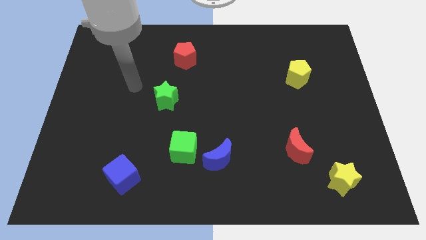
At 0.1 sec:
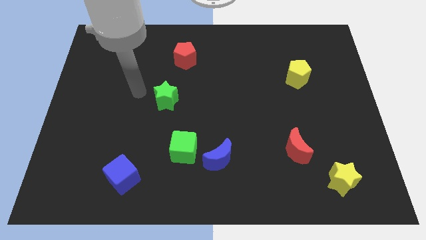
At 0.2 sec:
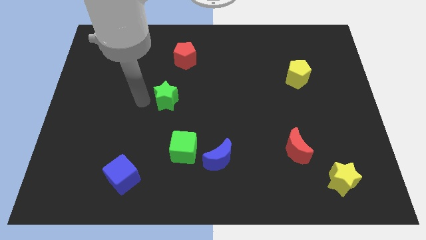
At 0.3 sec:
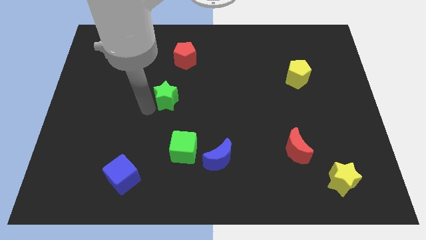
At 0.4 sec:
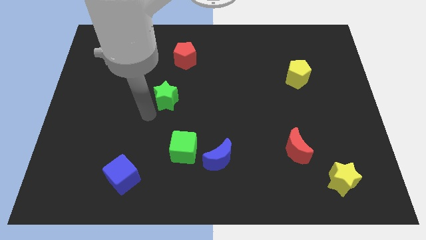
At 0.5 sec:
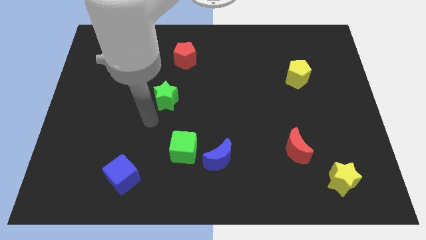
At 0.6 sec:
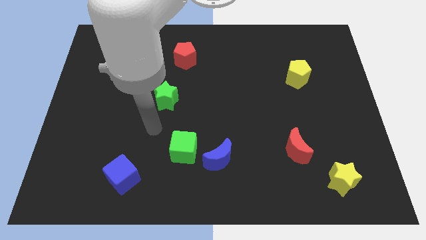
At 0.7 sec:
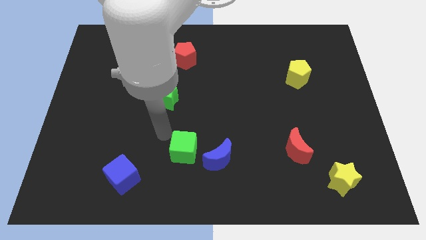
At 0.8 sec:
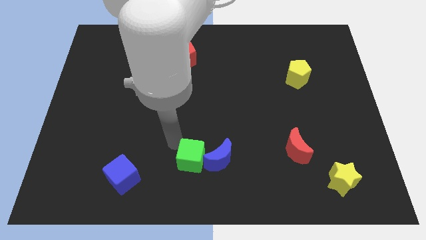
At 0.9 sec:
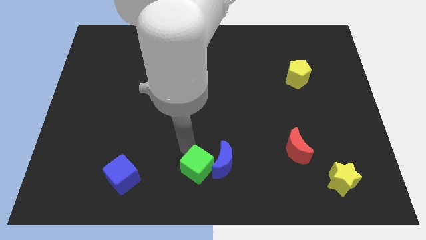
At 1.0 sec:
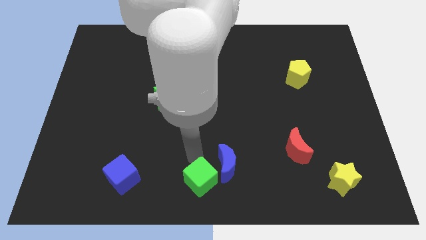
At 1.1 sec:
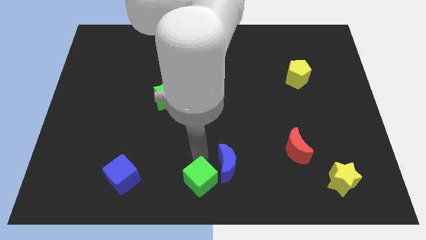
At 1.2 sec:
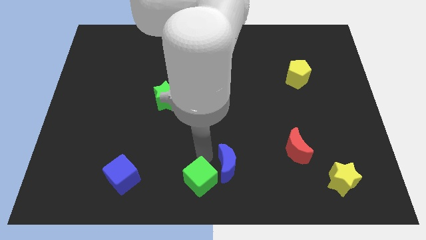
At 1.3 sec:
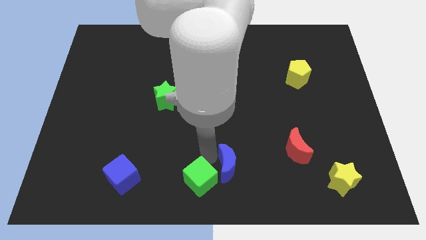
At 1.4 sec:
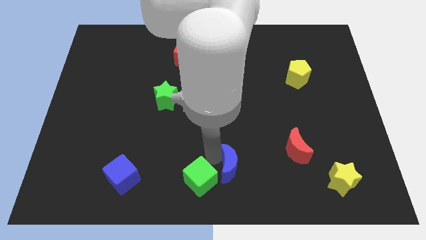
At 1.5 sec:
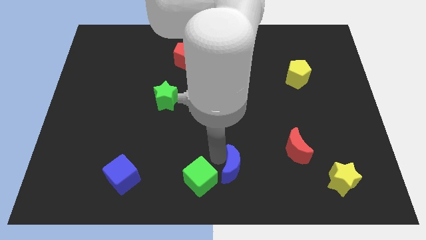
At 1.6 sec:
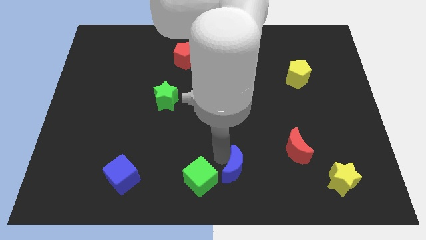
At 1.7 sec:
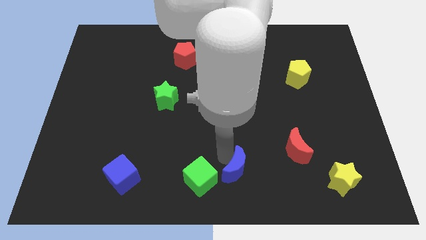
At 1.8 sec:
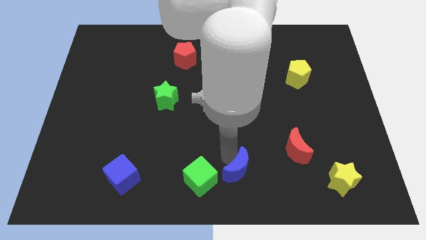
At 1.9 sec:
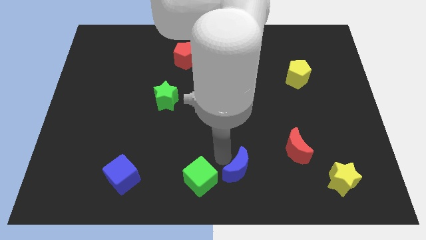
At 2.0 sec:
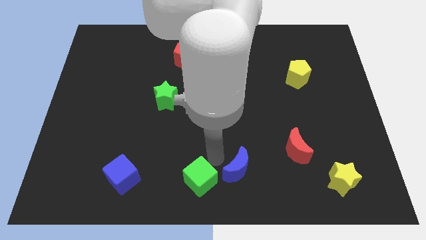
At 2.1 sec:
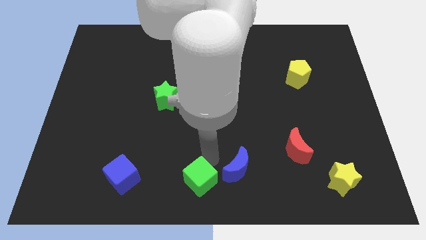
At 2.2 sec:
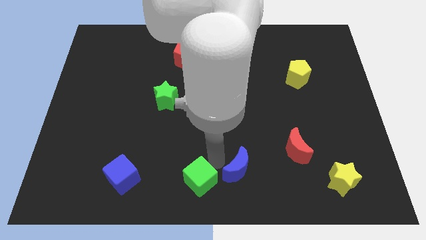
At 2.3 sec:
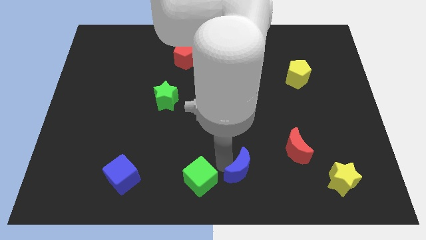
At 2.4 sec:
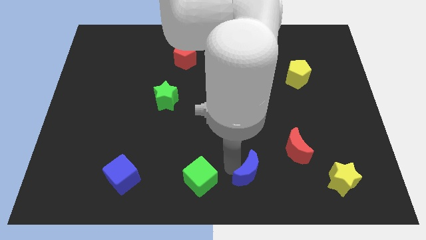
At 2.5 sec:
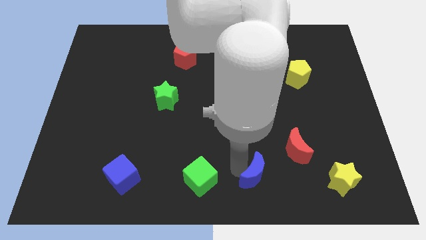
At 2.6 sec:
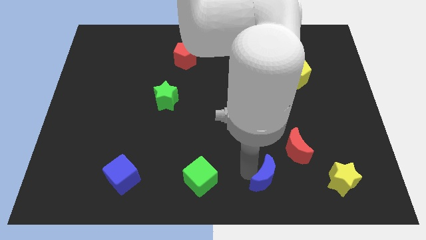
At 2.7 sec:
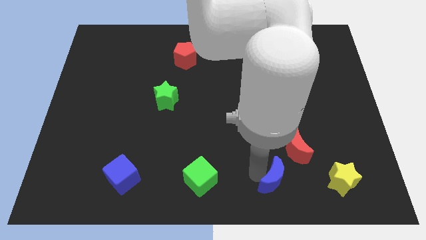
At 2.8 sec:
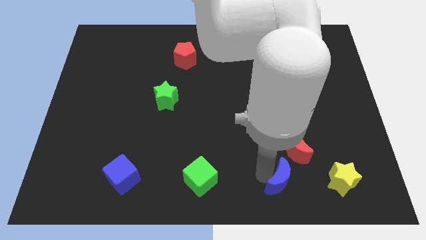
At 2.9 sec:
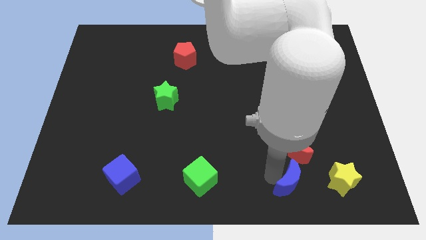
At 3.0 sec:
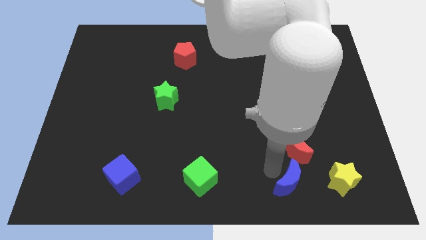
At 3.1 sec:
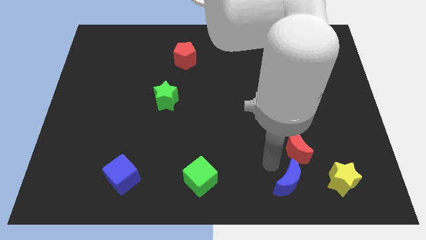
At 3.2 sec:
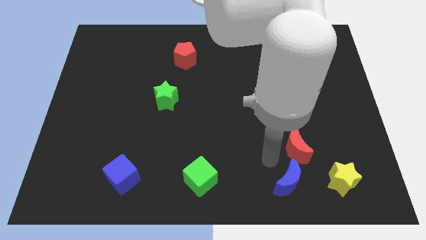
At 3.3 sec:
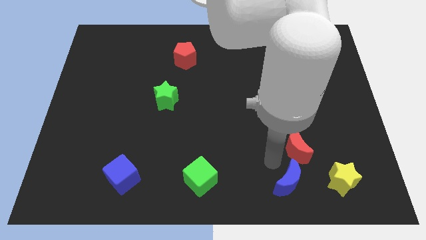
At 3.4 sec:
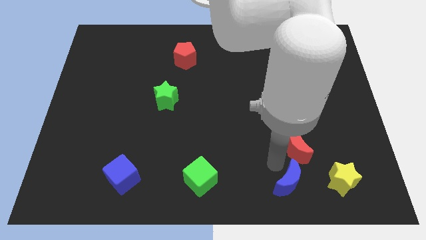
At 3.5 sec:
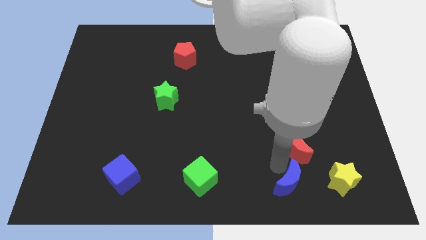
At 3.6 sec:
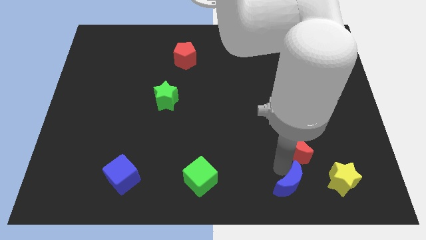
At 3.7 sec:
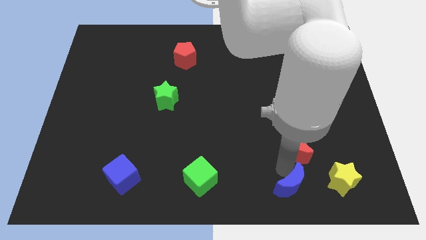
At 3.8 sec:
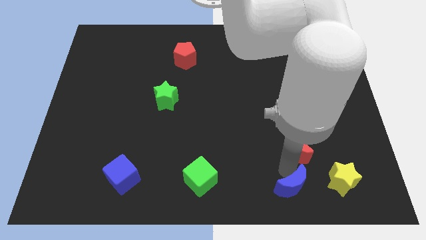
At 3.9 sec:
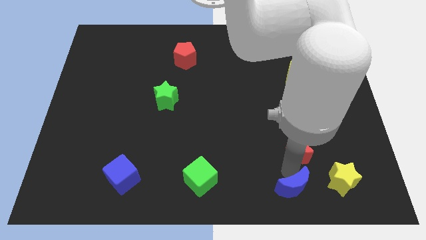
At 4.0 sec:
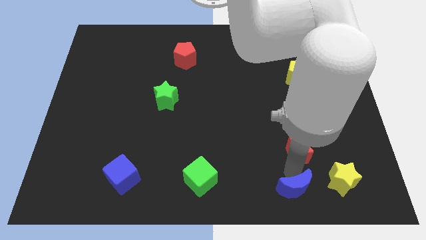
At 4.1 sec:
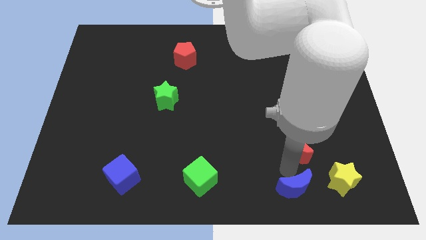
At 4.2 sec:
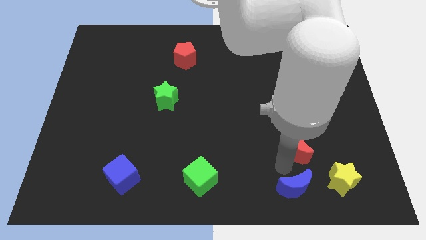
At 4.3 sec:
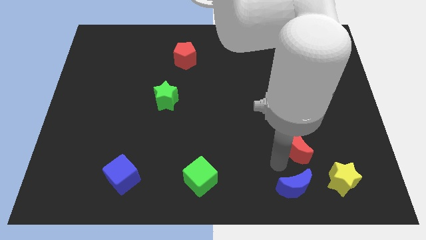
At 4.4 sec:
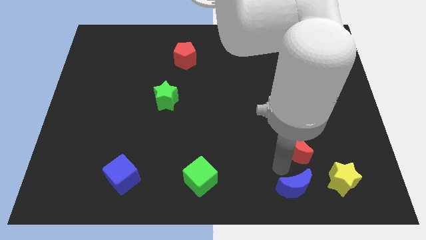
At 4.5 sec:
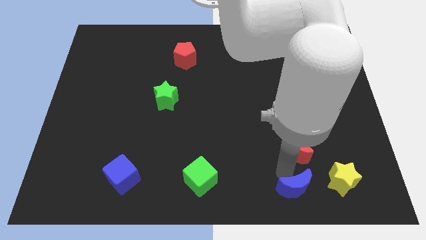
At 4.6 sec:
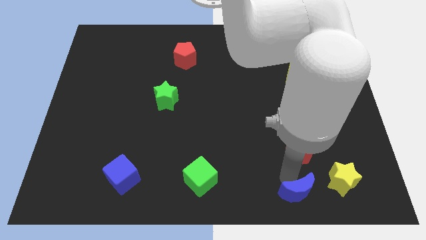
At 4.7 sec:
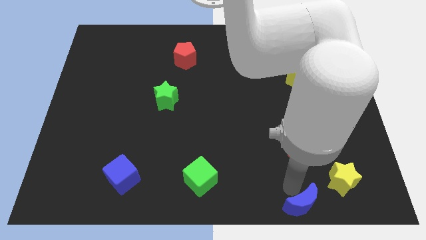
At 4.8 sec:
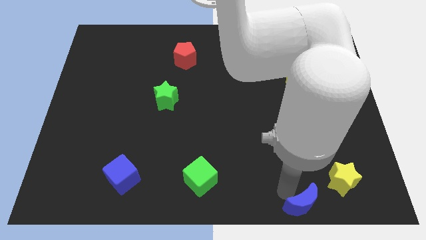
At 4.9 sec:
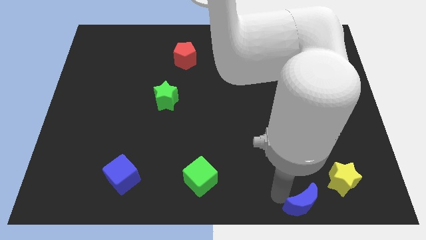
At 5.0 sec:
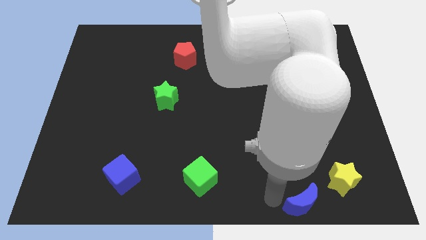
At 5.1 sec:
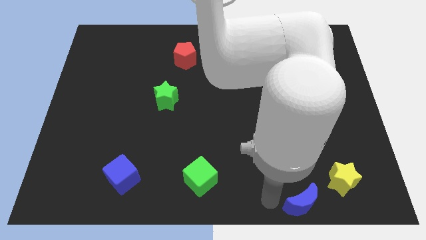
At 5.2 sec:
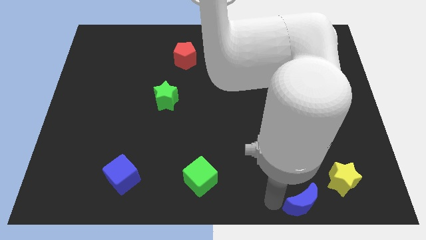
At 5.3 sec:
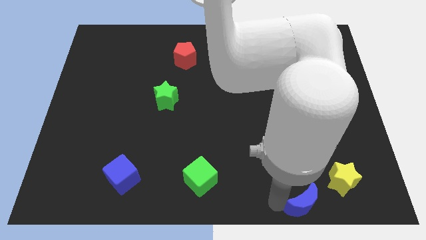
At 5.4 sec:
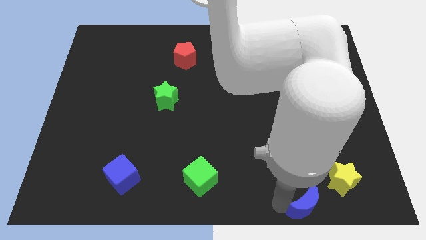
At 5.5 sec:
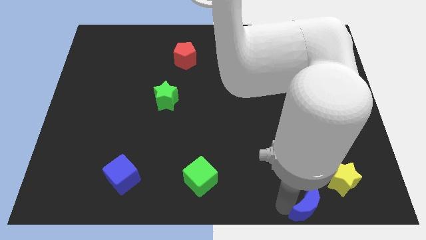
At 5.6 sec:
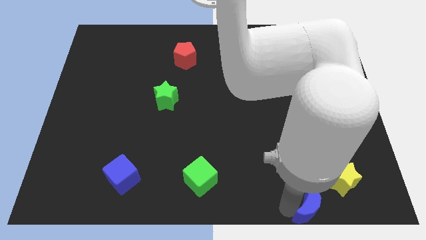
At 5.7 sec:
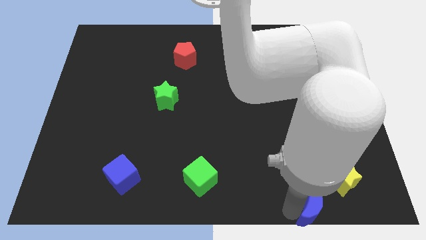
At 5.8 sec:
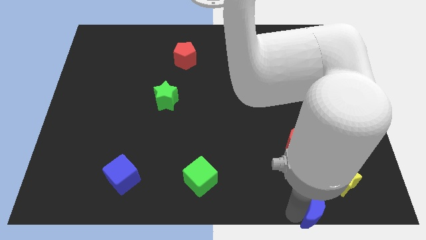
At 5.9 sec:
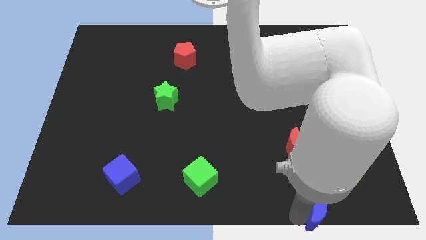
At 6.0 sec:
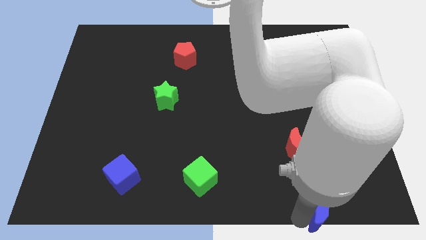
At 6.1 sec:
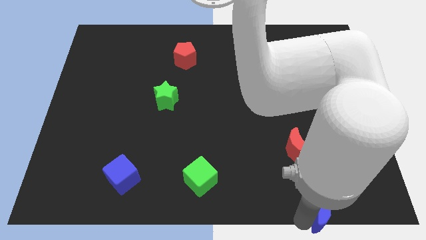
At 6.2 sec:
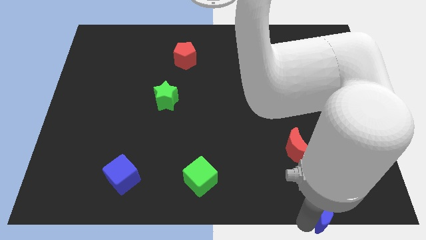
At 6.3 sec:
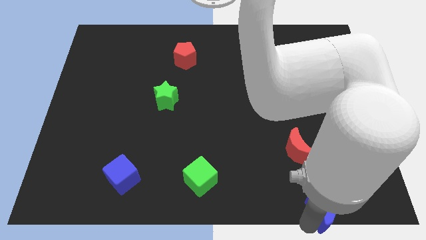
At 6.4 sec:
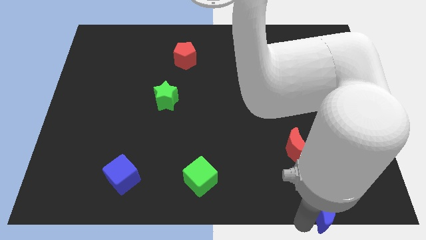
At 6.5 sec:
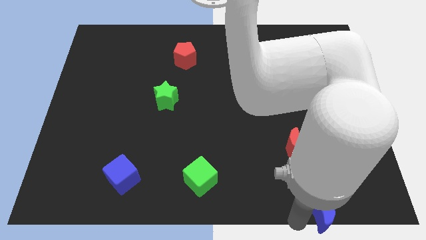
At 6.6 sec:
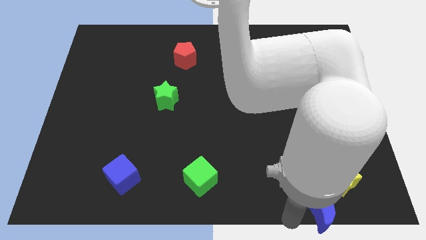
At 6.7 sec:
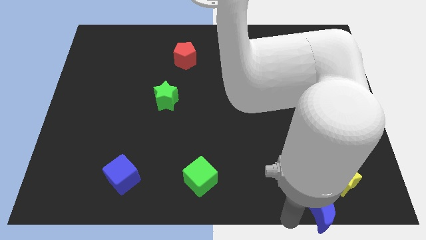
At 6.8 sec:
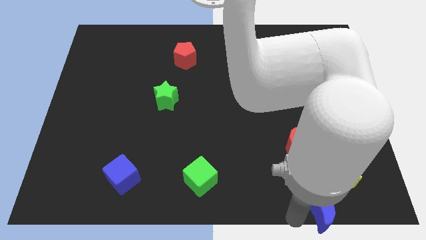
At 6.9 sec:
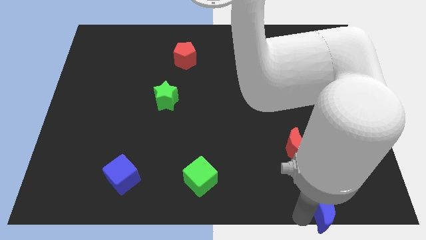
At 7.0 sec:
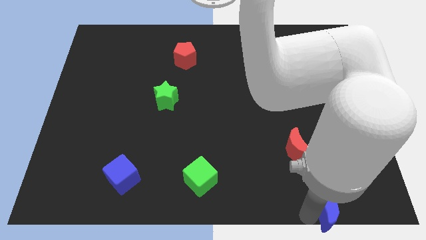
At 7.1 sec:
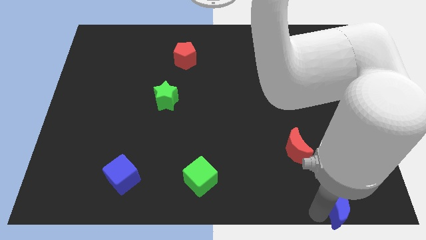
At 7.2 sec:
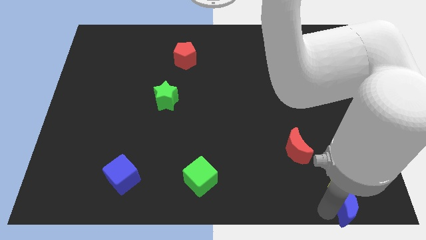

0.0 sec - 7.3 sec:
slide the blue moon to the bottom right
